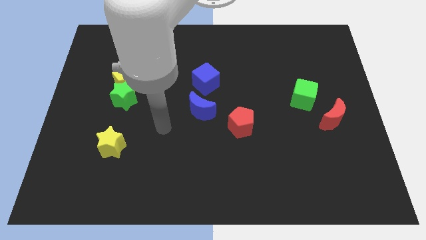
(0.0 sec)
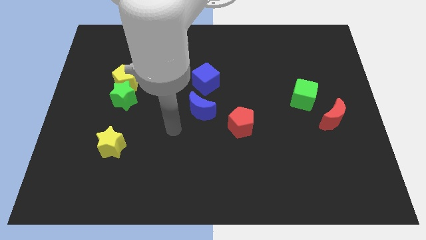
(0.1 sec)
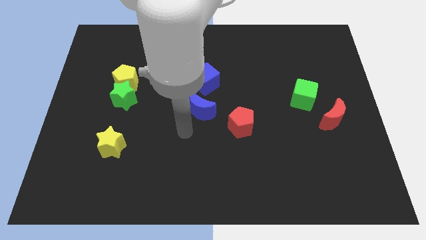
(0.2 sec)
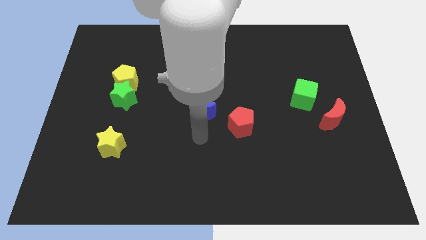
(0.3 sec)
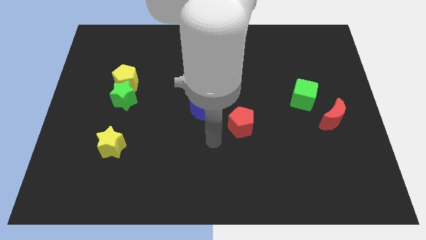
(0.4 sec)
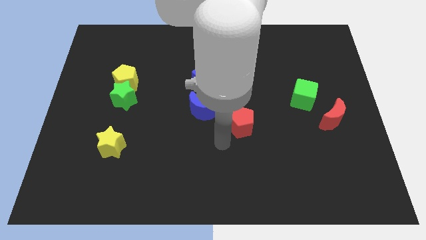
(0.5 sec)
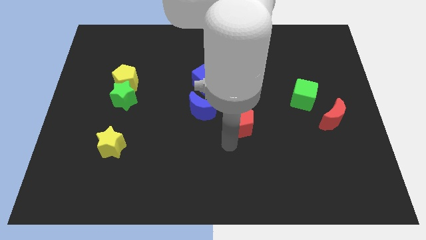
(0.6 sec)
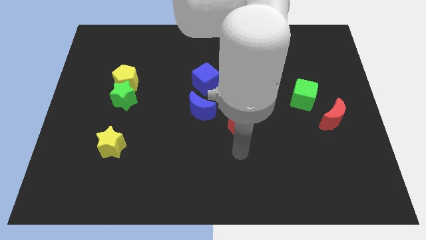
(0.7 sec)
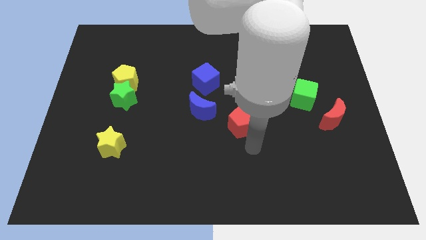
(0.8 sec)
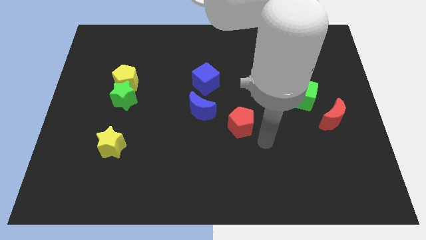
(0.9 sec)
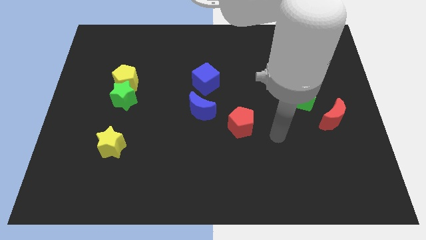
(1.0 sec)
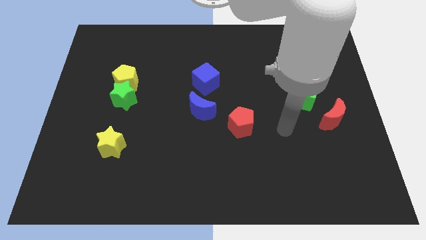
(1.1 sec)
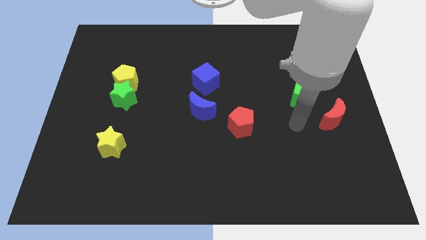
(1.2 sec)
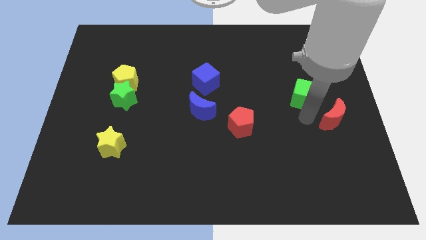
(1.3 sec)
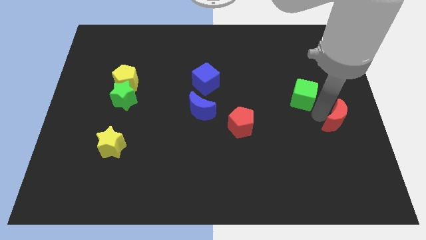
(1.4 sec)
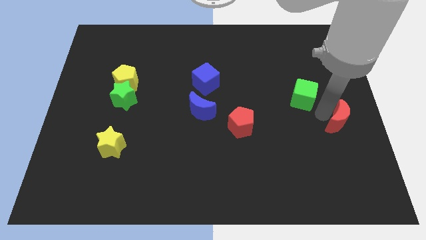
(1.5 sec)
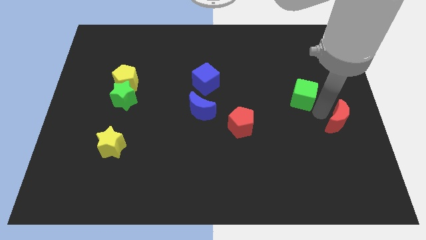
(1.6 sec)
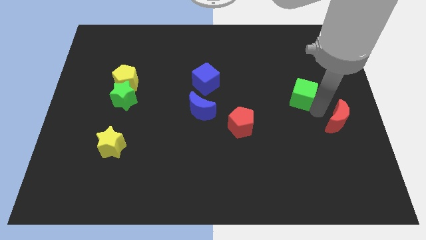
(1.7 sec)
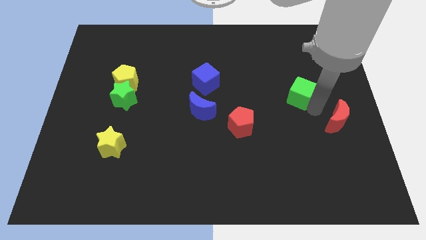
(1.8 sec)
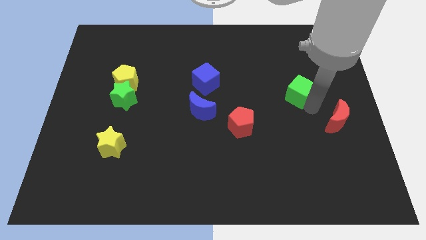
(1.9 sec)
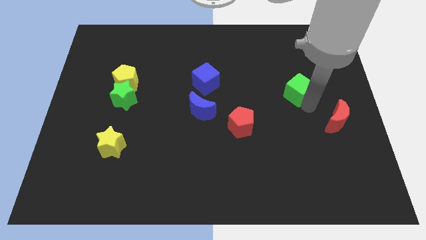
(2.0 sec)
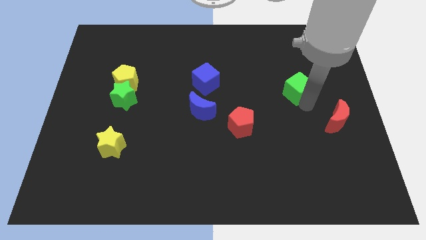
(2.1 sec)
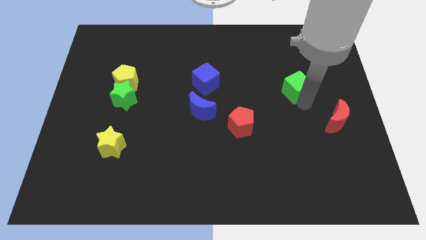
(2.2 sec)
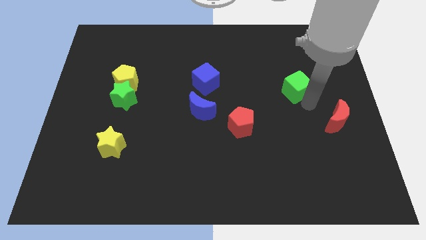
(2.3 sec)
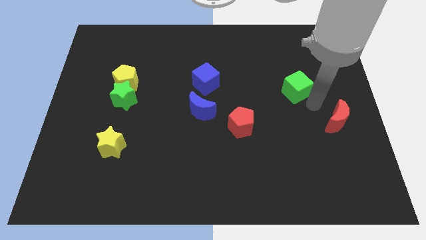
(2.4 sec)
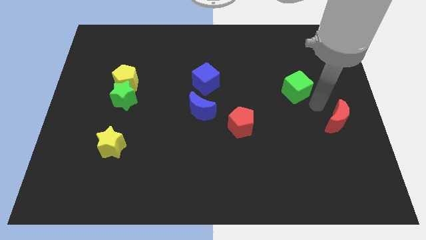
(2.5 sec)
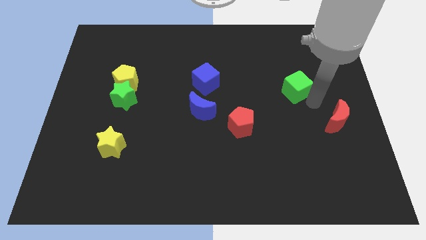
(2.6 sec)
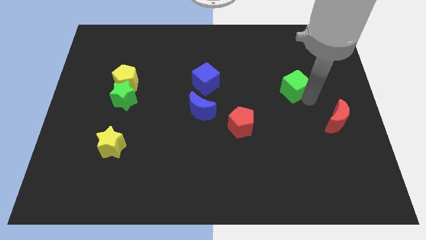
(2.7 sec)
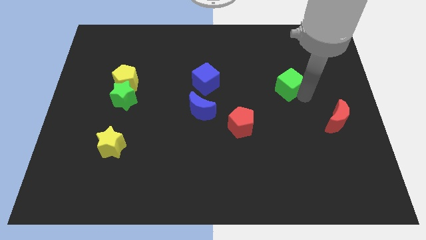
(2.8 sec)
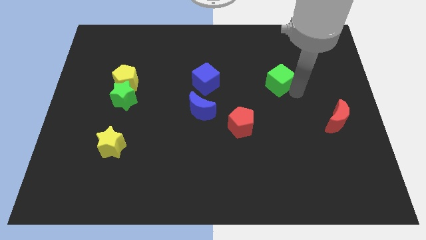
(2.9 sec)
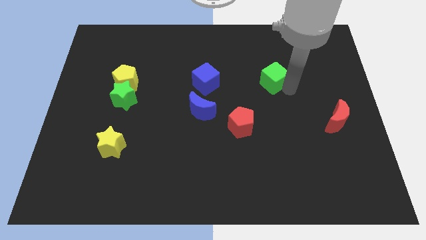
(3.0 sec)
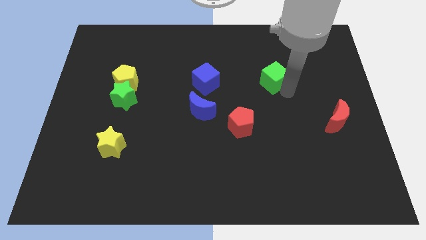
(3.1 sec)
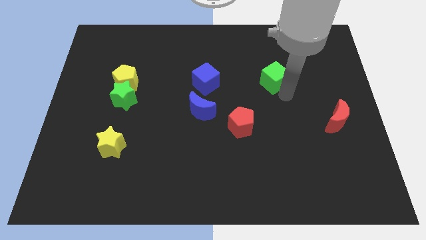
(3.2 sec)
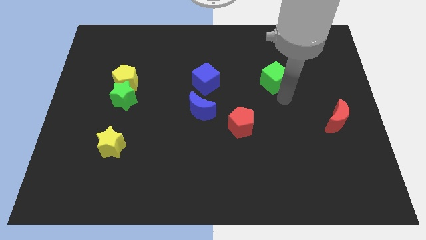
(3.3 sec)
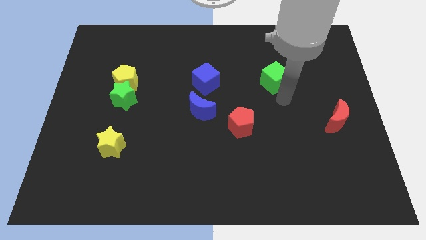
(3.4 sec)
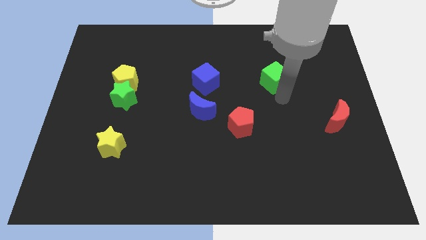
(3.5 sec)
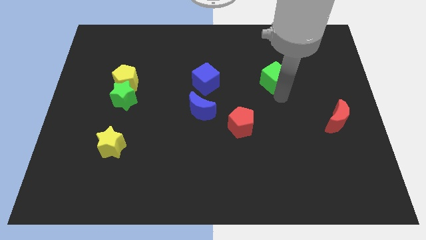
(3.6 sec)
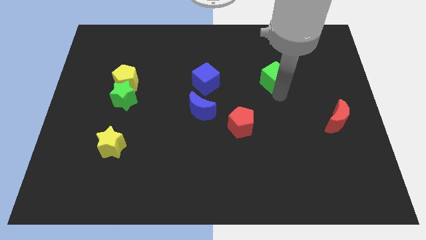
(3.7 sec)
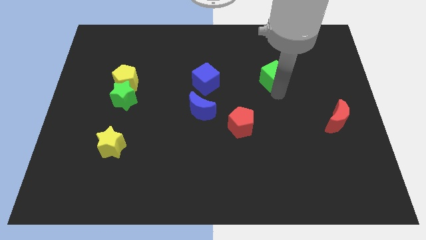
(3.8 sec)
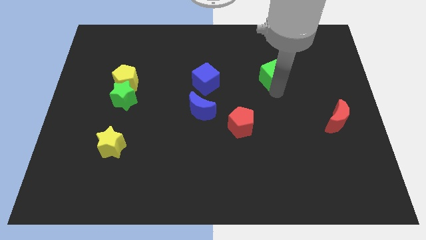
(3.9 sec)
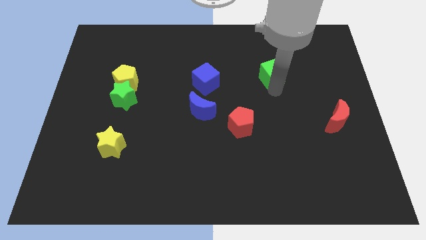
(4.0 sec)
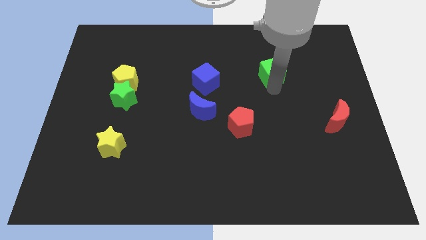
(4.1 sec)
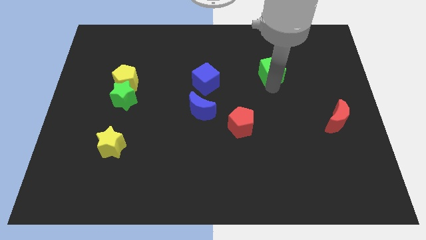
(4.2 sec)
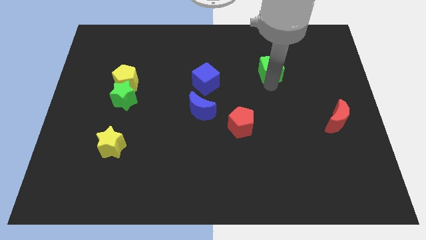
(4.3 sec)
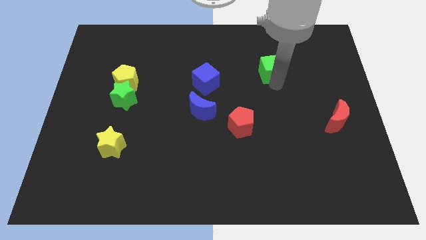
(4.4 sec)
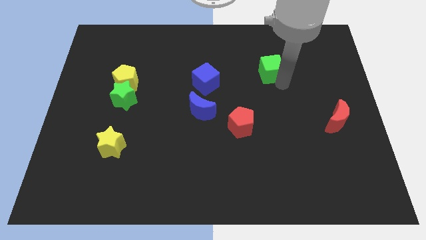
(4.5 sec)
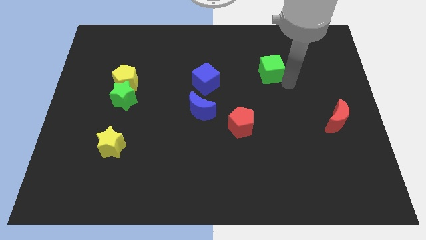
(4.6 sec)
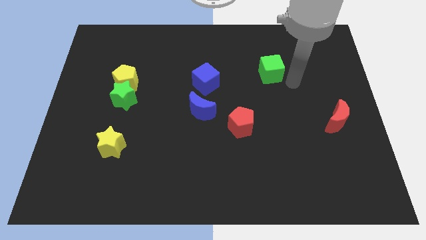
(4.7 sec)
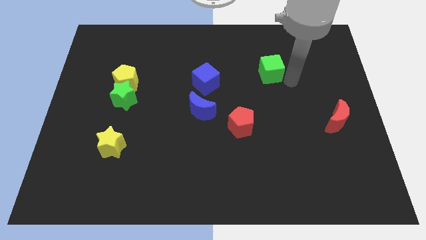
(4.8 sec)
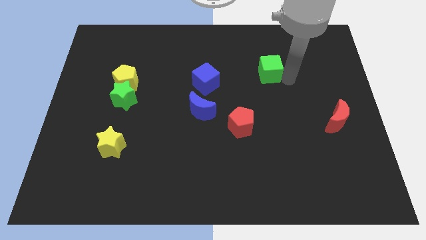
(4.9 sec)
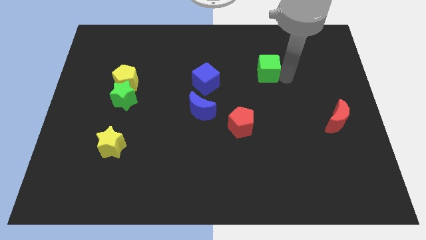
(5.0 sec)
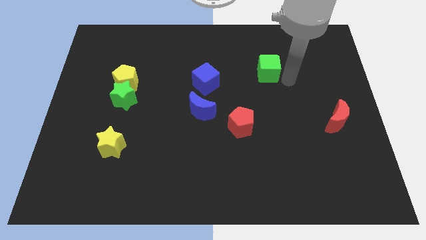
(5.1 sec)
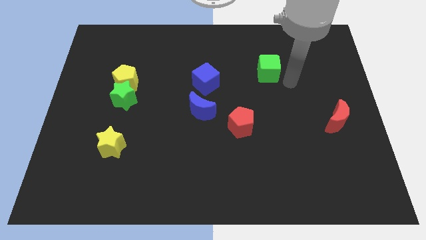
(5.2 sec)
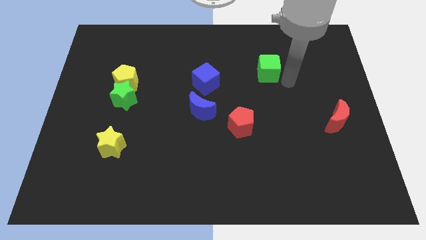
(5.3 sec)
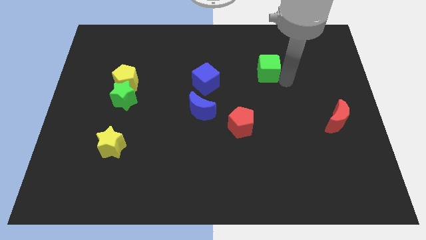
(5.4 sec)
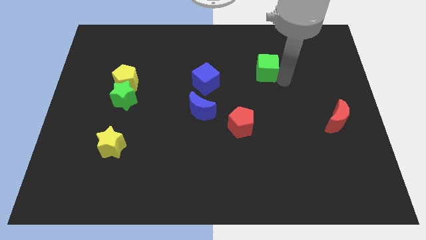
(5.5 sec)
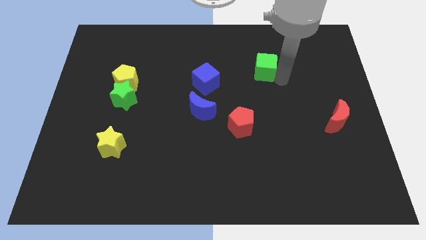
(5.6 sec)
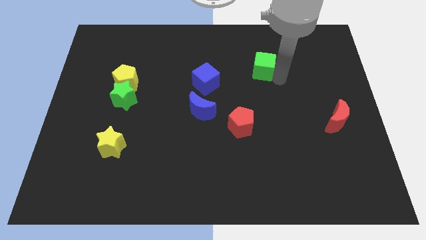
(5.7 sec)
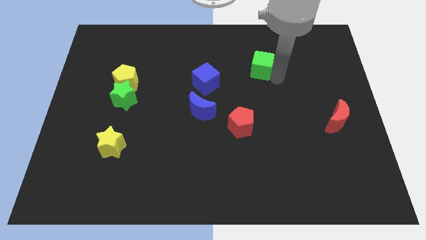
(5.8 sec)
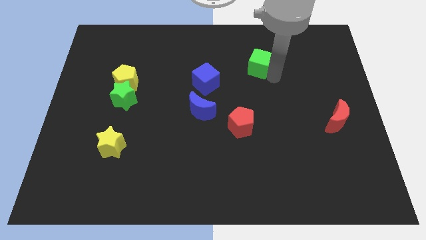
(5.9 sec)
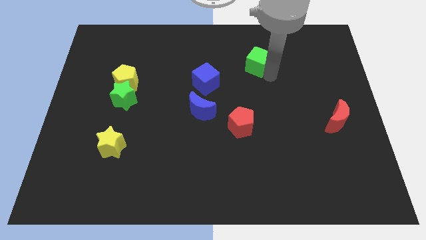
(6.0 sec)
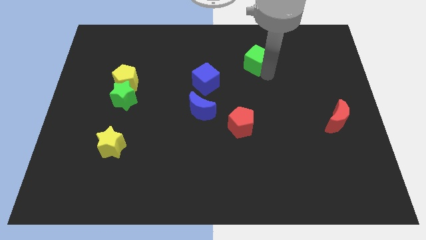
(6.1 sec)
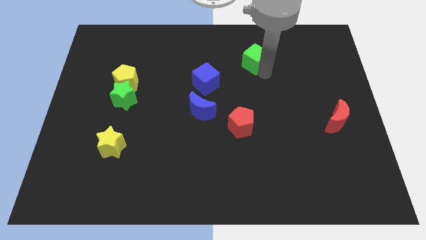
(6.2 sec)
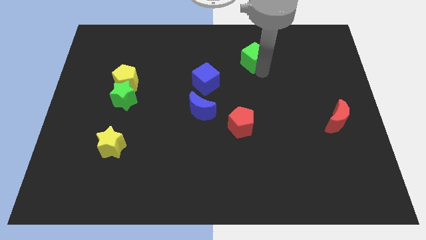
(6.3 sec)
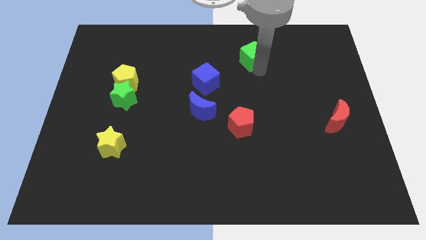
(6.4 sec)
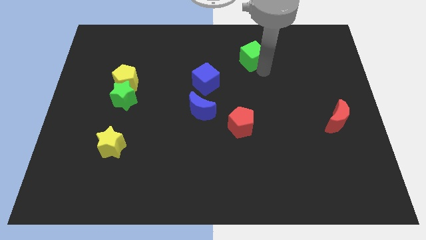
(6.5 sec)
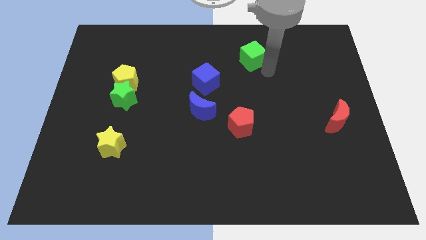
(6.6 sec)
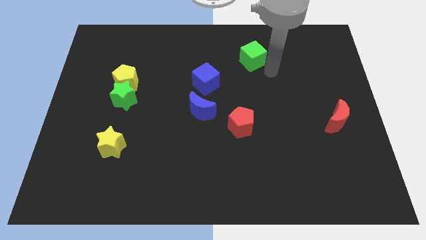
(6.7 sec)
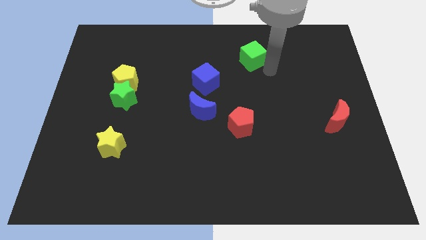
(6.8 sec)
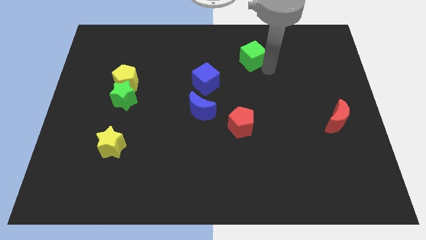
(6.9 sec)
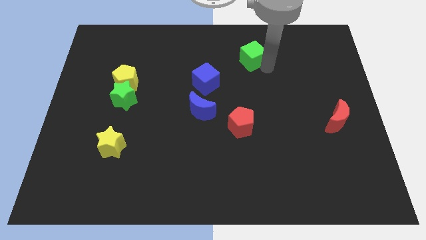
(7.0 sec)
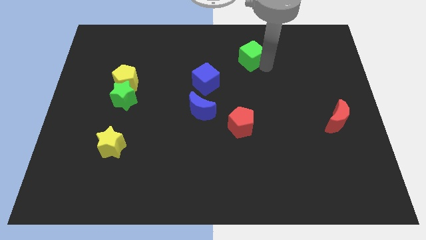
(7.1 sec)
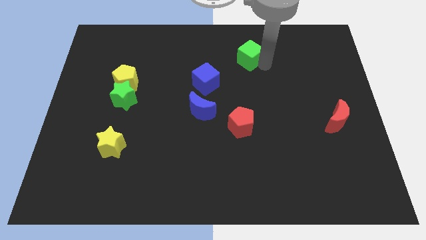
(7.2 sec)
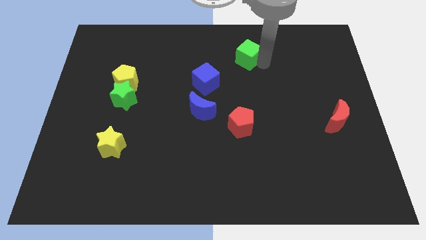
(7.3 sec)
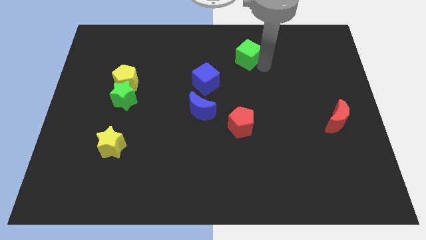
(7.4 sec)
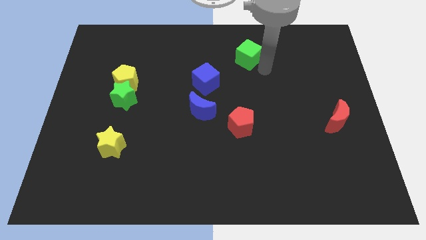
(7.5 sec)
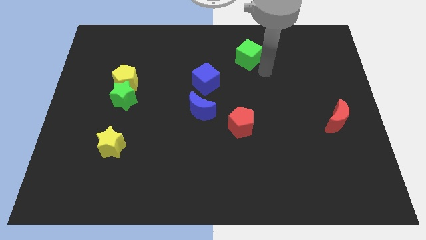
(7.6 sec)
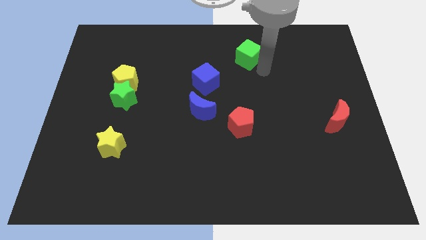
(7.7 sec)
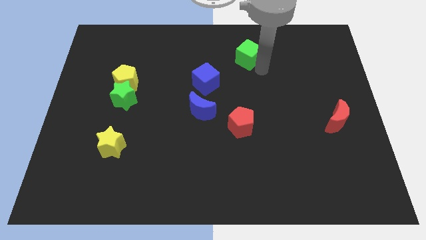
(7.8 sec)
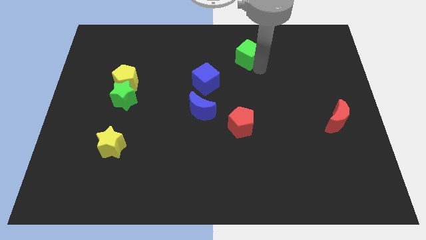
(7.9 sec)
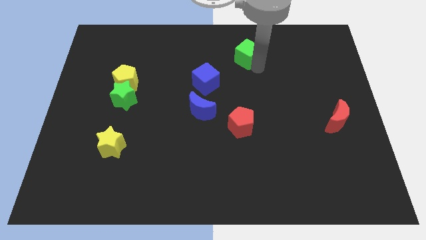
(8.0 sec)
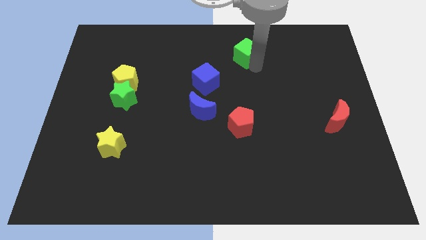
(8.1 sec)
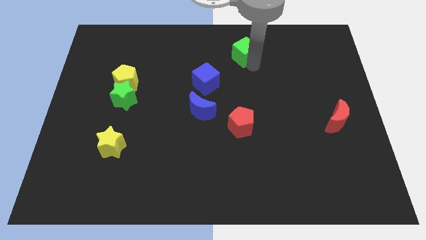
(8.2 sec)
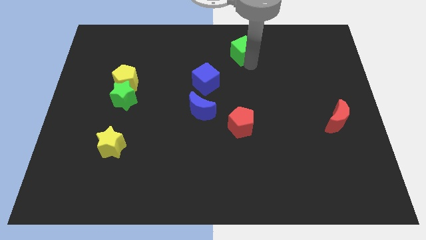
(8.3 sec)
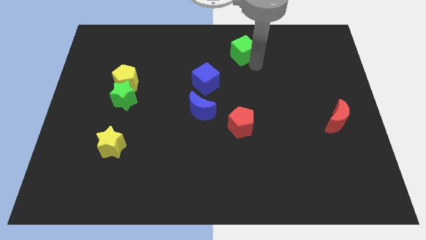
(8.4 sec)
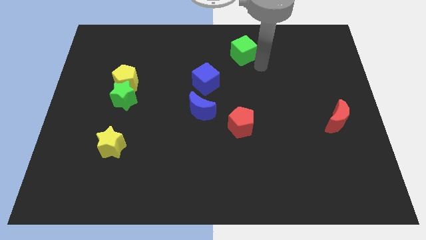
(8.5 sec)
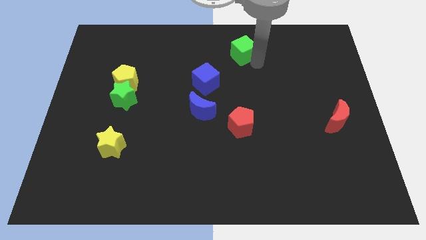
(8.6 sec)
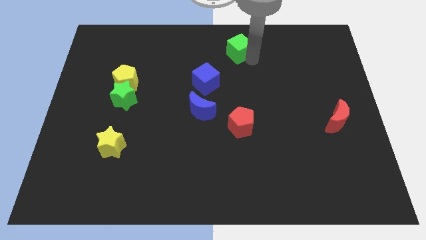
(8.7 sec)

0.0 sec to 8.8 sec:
slide the green cube to the top
